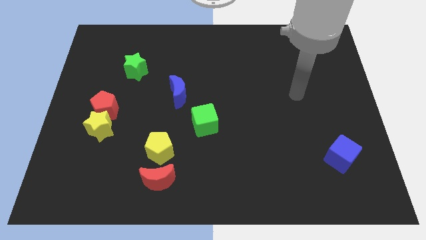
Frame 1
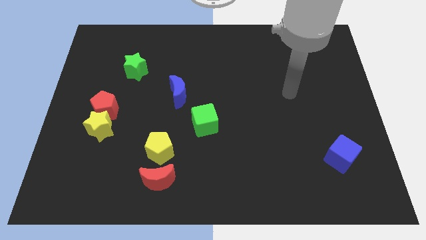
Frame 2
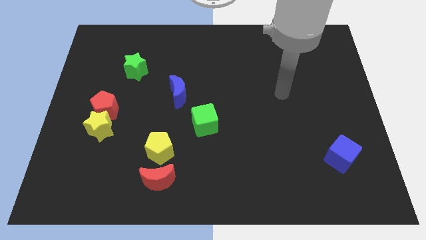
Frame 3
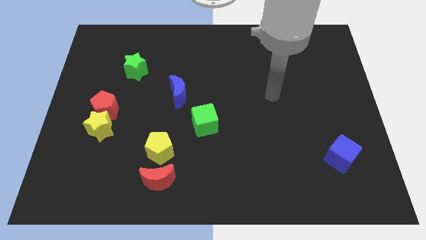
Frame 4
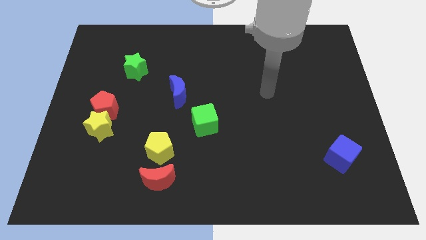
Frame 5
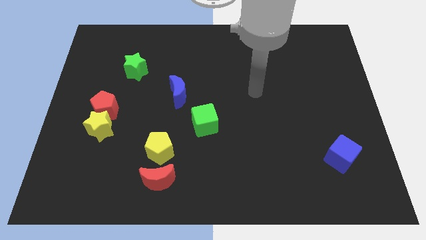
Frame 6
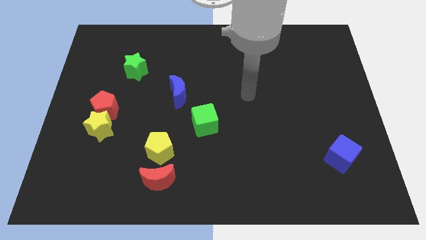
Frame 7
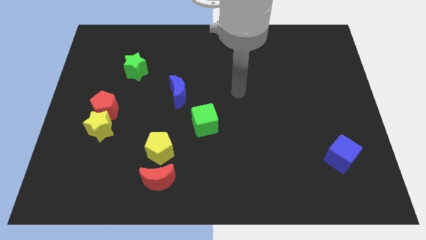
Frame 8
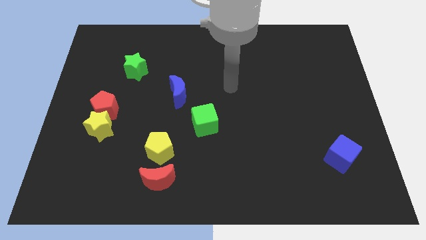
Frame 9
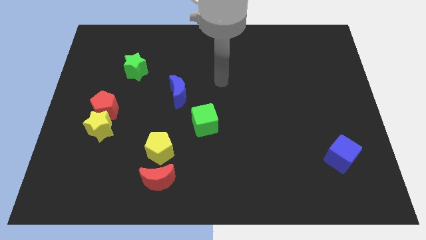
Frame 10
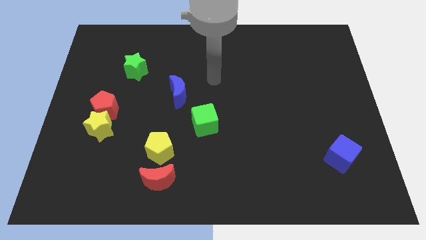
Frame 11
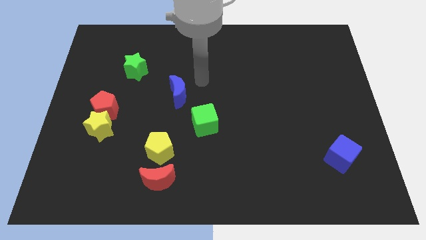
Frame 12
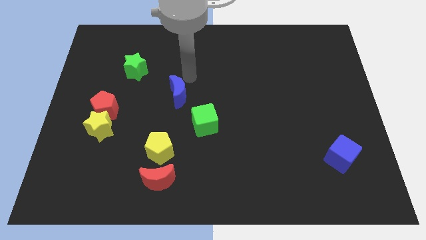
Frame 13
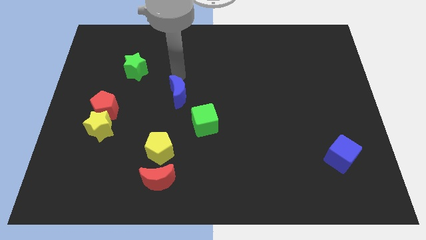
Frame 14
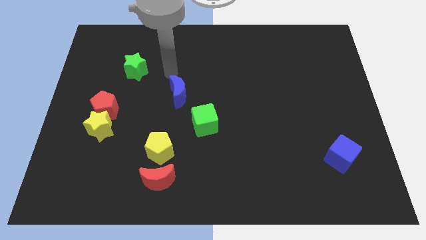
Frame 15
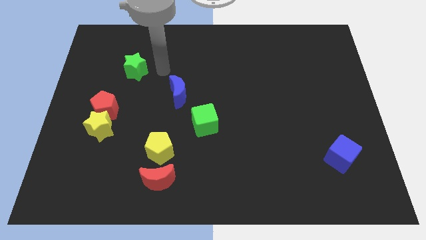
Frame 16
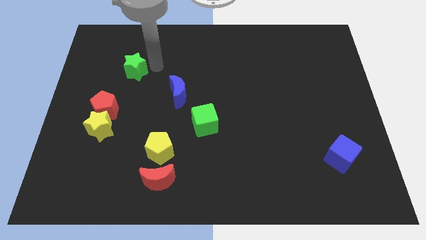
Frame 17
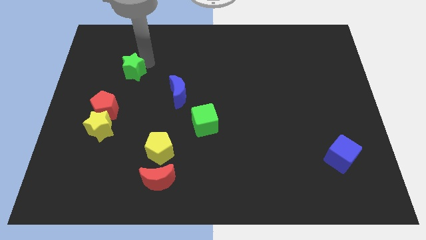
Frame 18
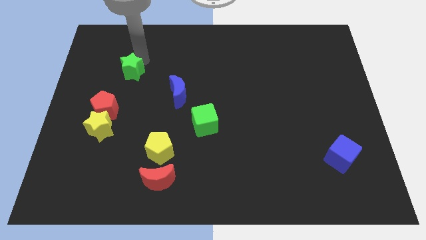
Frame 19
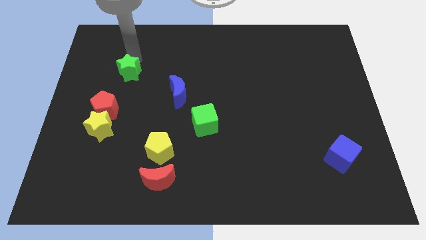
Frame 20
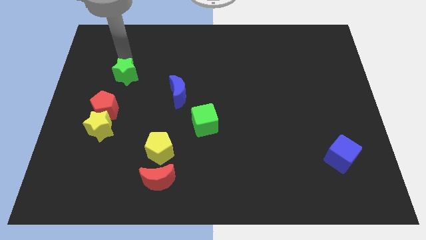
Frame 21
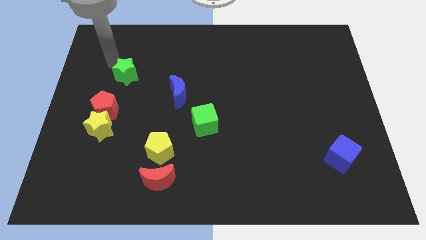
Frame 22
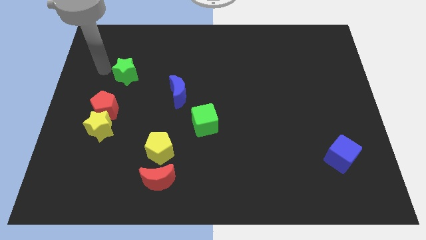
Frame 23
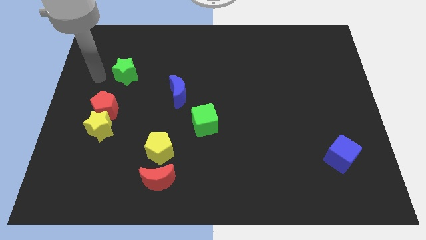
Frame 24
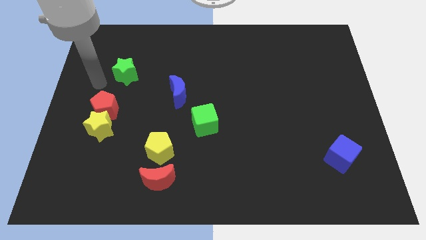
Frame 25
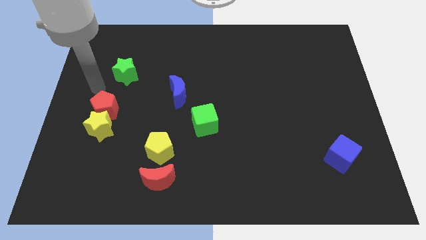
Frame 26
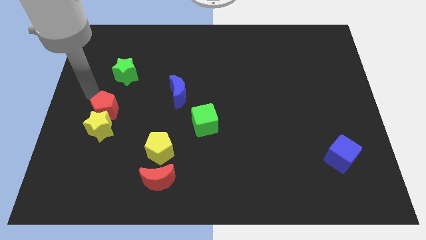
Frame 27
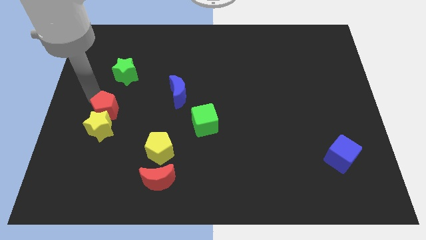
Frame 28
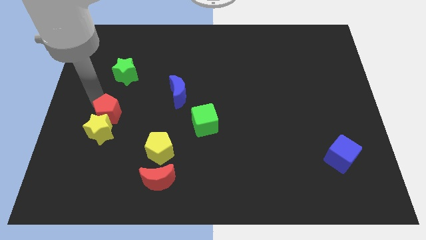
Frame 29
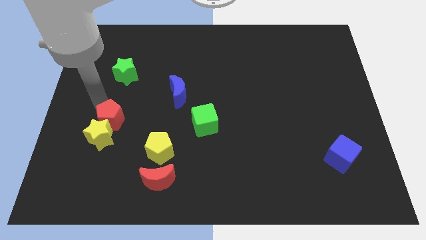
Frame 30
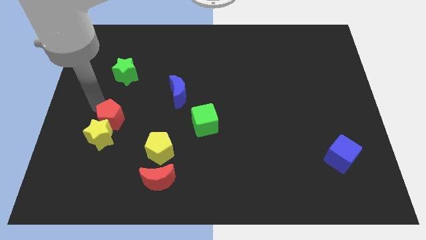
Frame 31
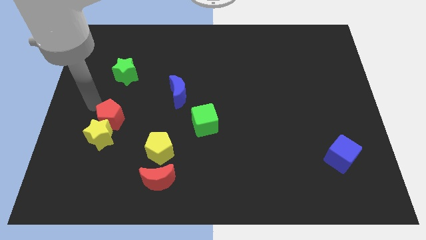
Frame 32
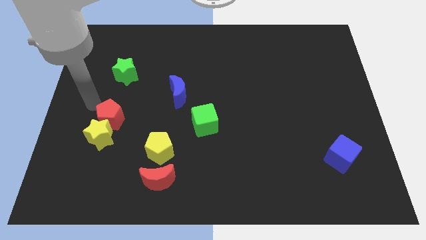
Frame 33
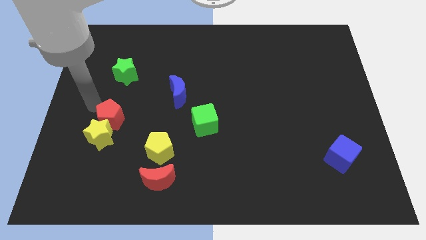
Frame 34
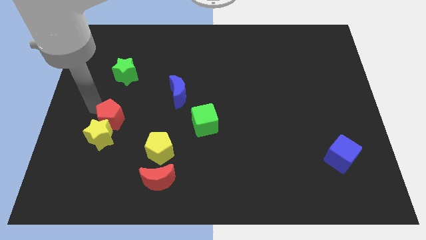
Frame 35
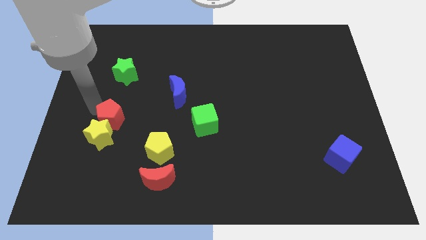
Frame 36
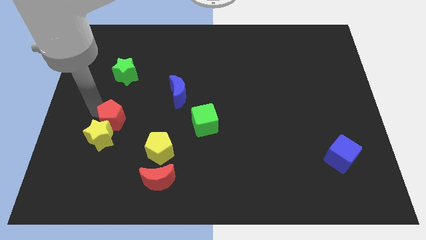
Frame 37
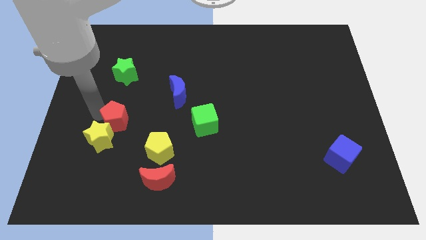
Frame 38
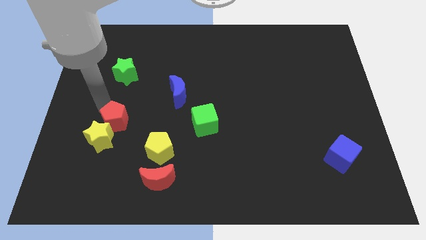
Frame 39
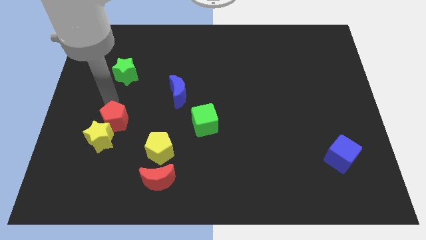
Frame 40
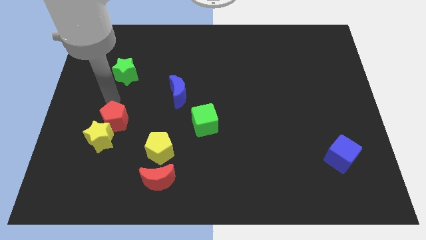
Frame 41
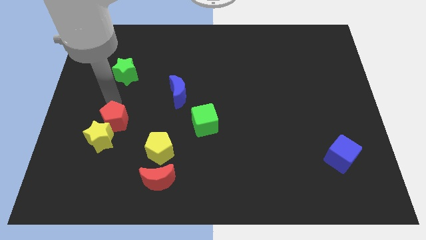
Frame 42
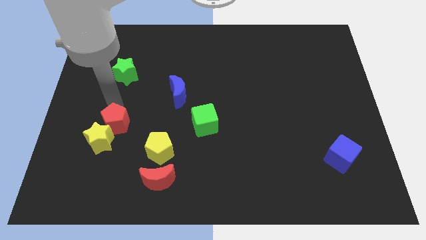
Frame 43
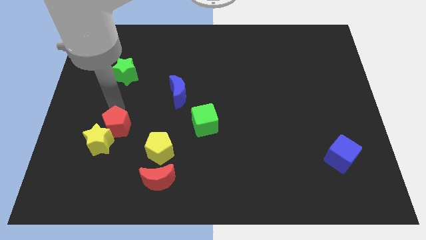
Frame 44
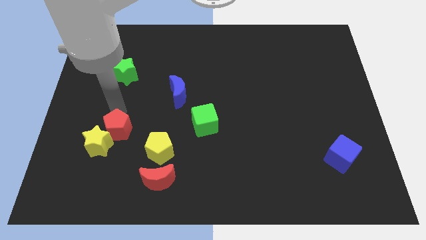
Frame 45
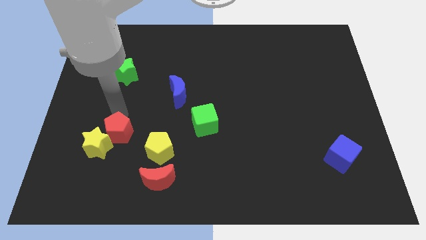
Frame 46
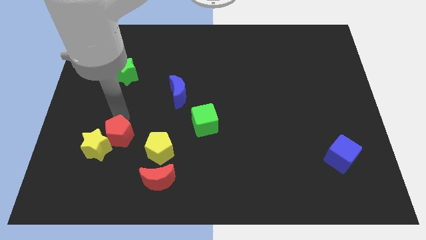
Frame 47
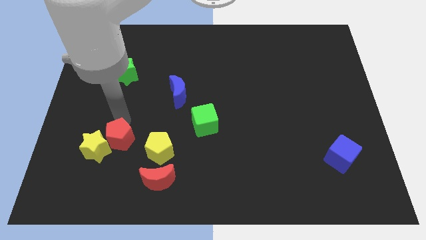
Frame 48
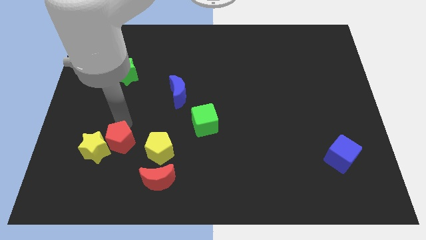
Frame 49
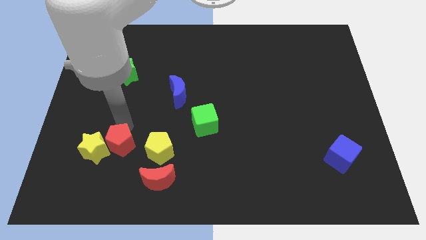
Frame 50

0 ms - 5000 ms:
push the red pentagon to the bottom right of the yellow star

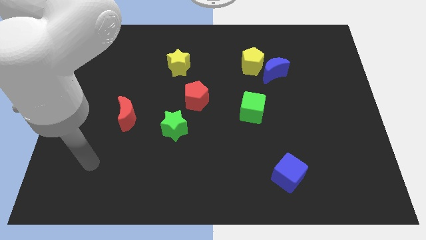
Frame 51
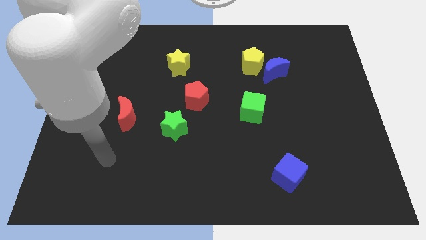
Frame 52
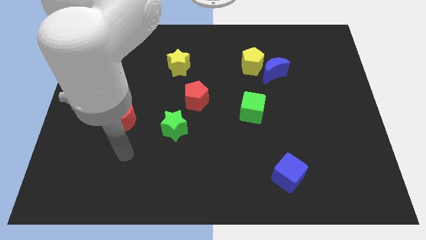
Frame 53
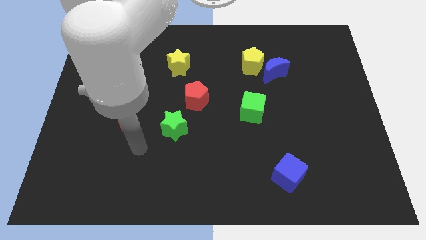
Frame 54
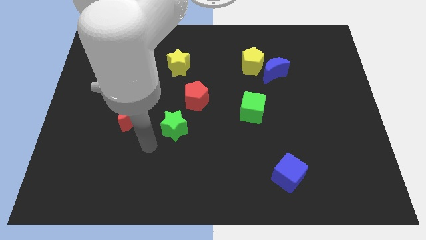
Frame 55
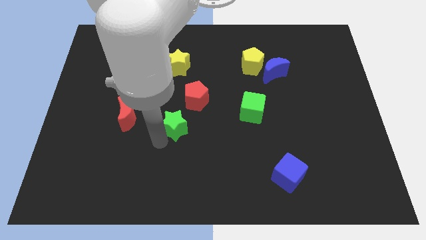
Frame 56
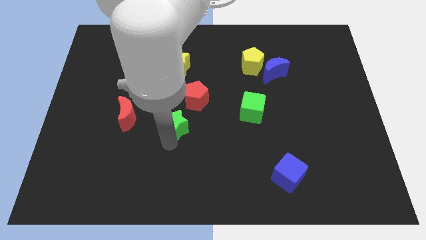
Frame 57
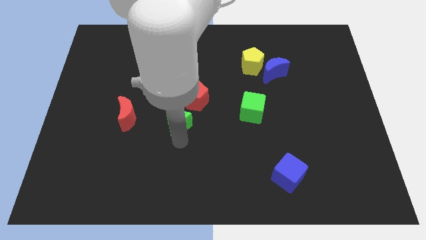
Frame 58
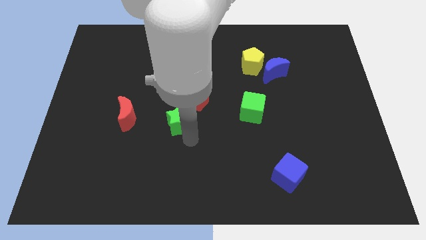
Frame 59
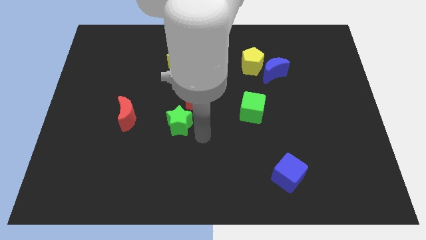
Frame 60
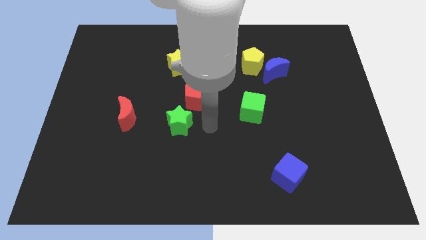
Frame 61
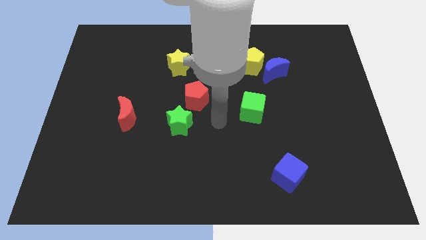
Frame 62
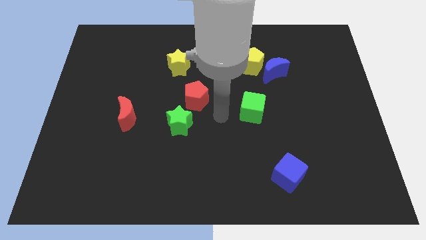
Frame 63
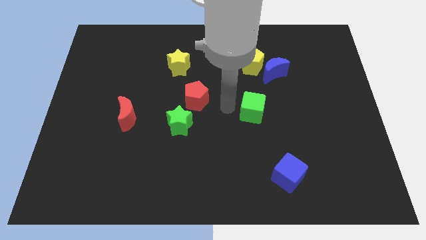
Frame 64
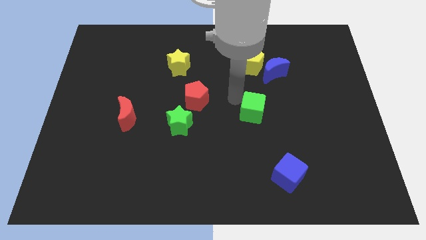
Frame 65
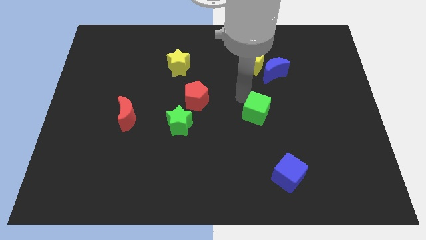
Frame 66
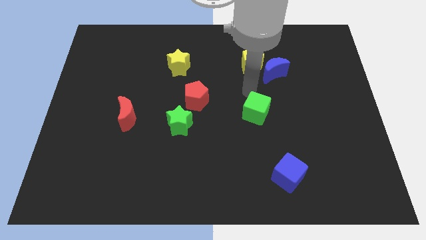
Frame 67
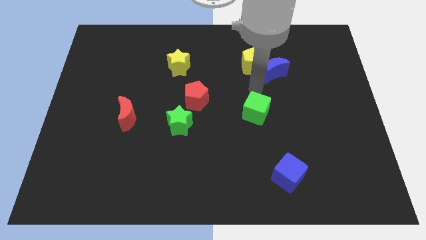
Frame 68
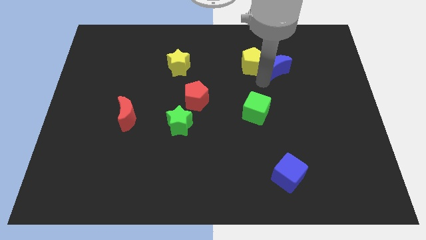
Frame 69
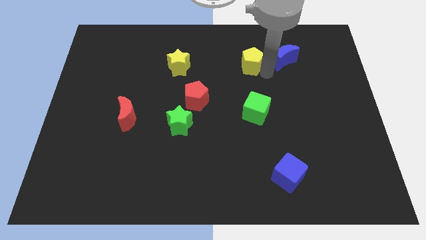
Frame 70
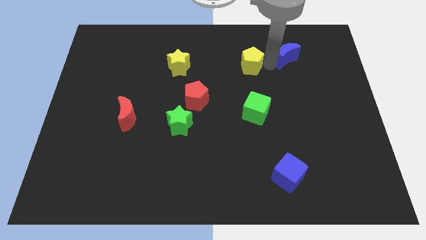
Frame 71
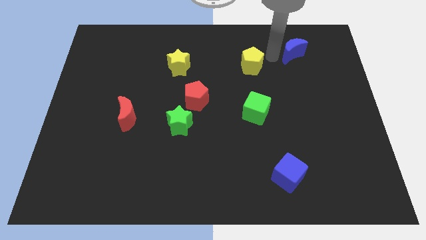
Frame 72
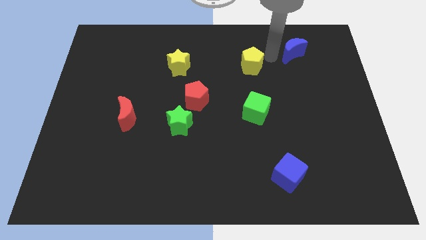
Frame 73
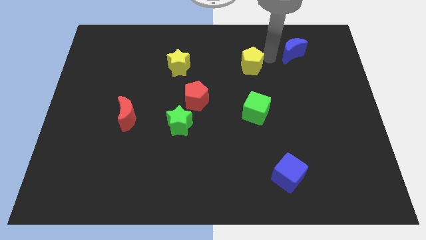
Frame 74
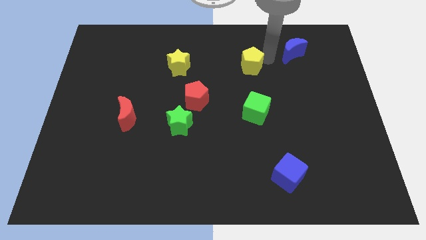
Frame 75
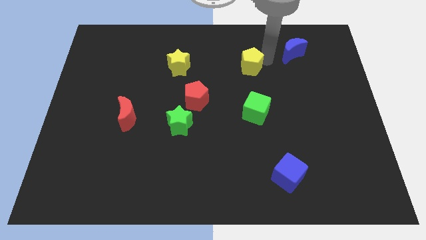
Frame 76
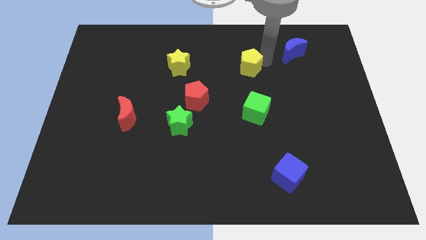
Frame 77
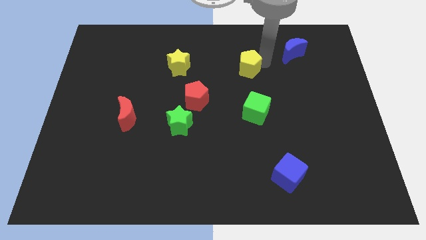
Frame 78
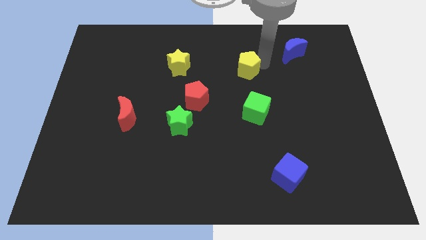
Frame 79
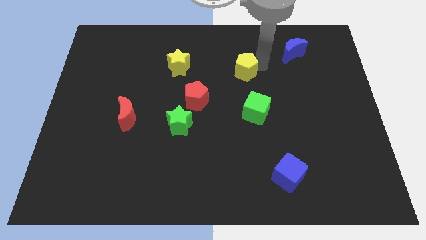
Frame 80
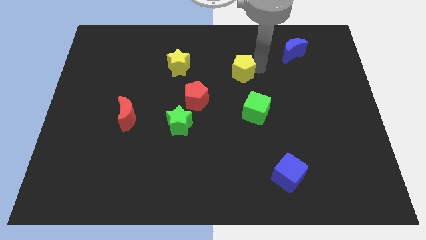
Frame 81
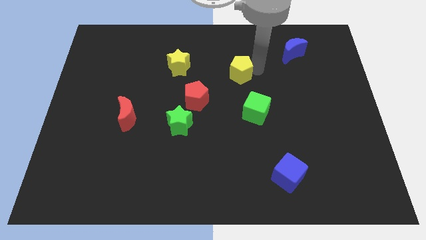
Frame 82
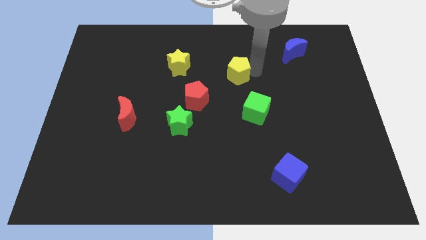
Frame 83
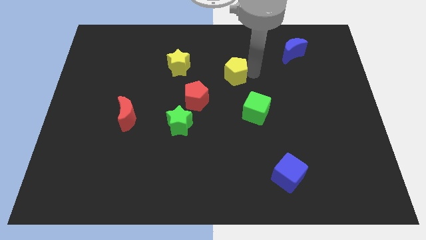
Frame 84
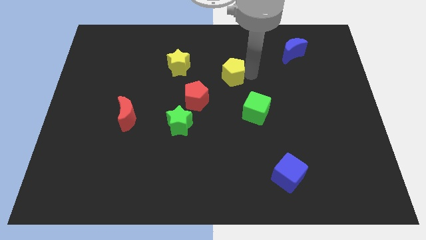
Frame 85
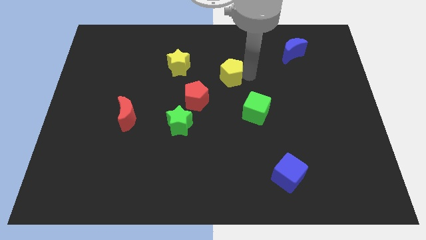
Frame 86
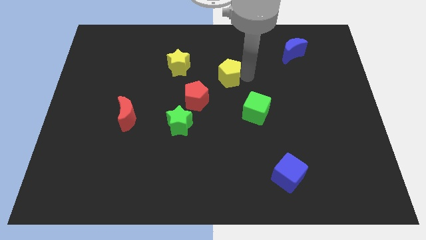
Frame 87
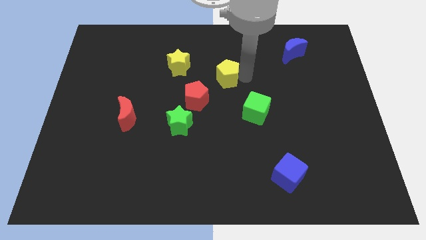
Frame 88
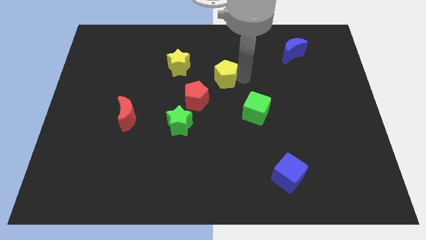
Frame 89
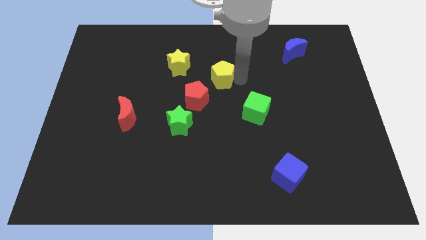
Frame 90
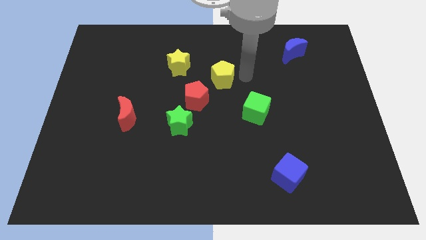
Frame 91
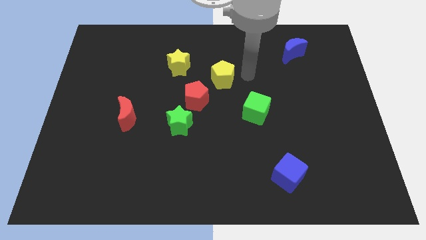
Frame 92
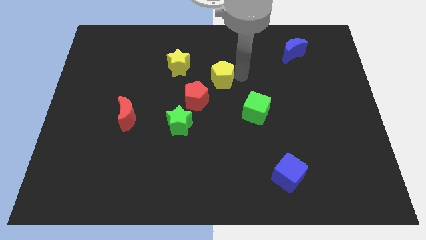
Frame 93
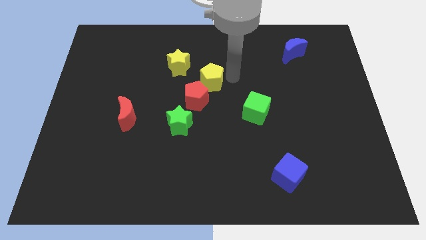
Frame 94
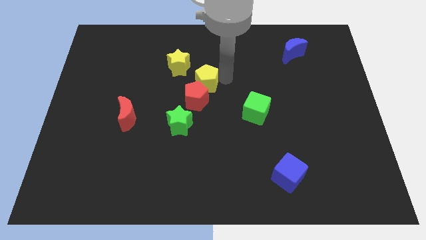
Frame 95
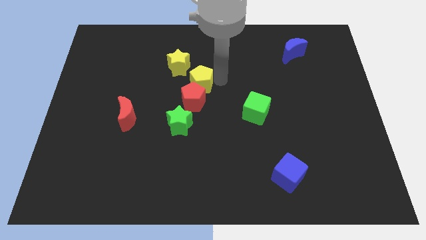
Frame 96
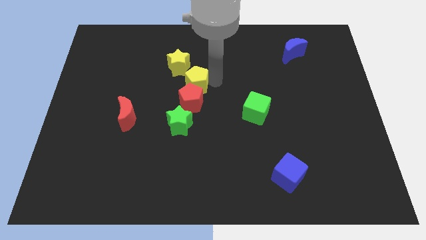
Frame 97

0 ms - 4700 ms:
push the yellow pentagon to the bottom of the yellow star
